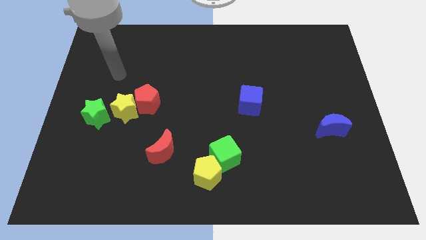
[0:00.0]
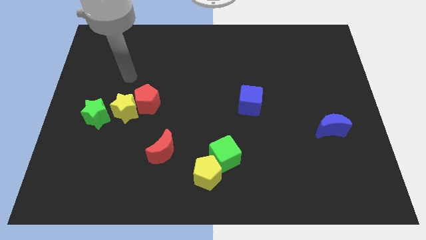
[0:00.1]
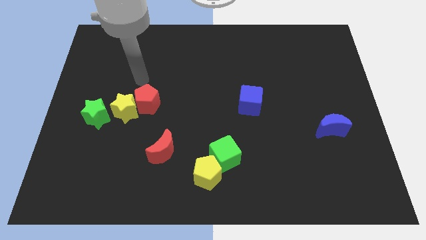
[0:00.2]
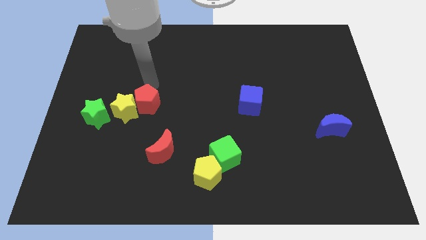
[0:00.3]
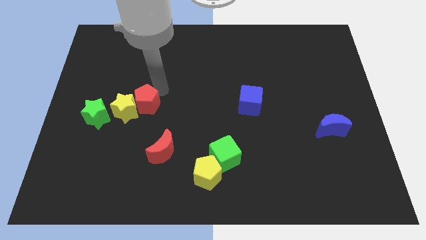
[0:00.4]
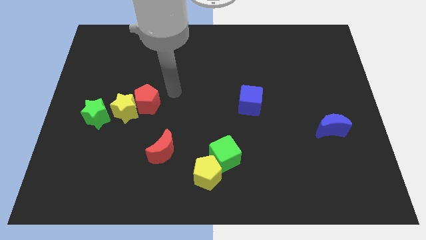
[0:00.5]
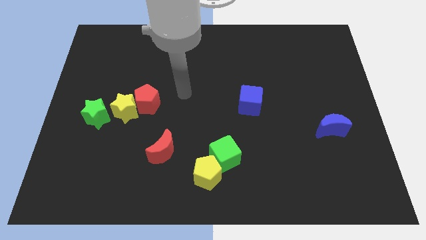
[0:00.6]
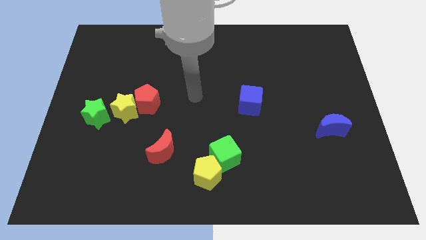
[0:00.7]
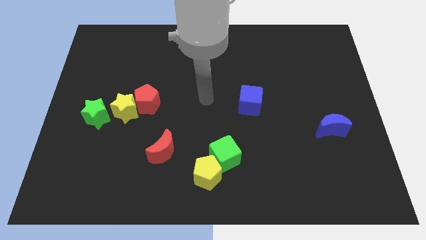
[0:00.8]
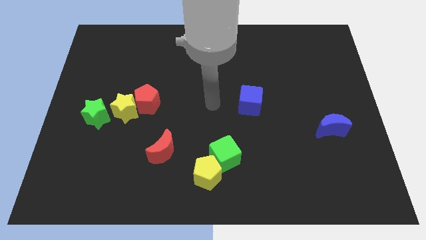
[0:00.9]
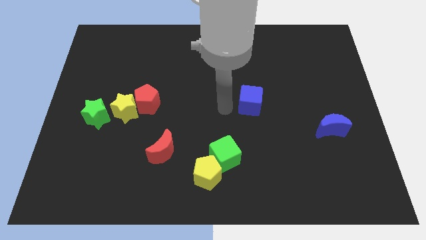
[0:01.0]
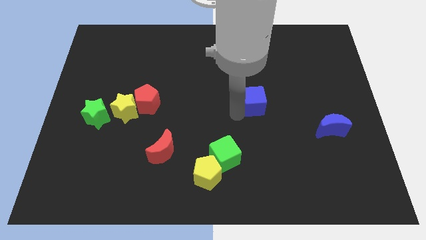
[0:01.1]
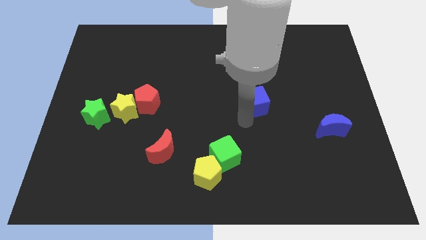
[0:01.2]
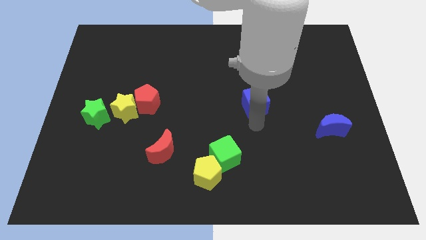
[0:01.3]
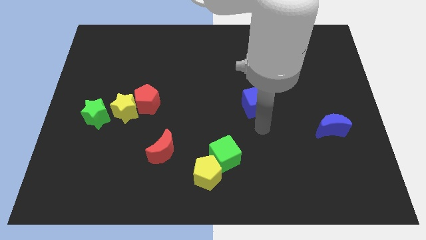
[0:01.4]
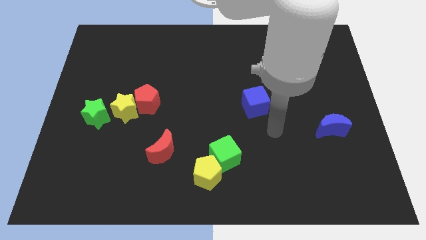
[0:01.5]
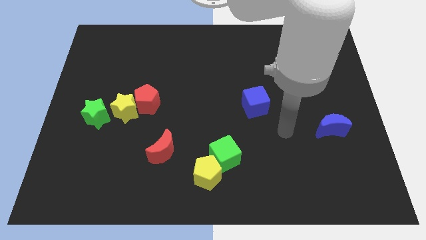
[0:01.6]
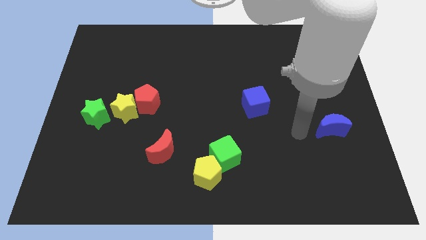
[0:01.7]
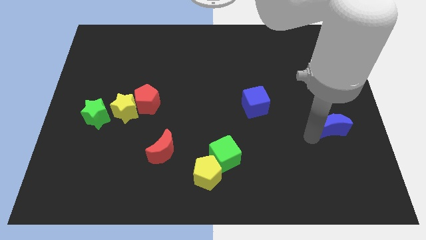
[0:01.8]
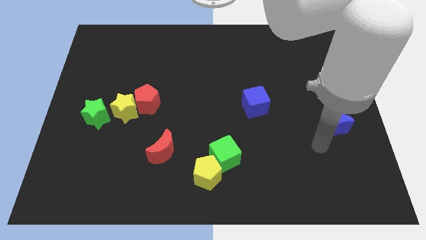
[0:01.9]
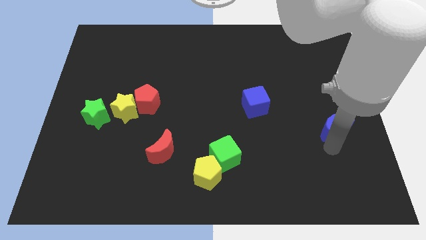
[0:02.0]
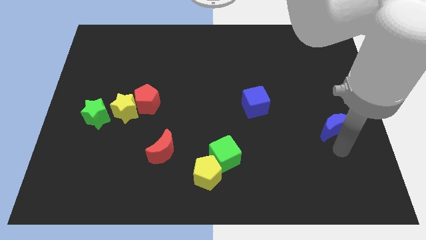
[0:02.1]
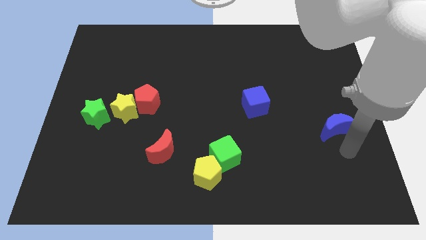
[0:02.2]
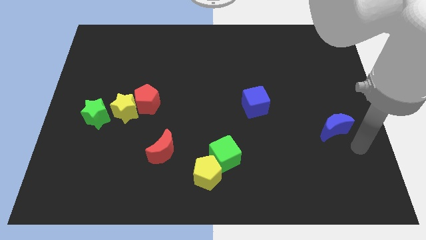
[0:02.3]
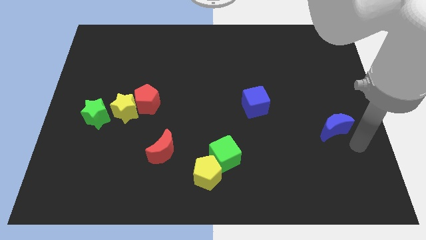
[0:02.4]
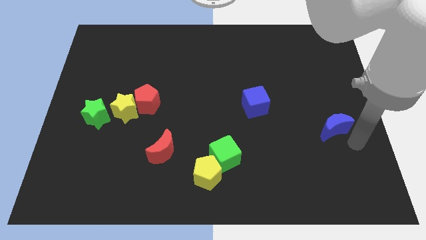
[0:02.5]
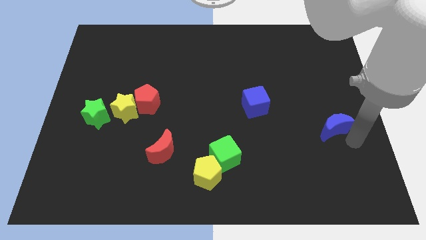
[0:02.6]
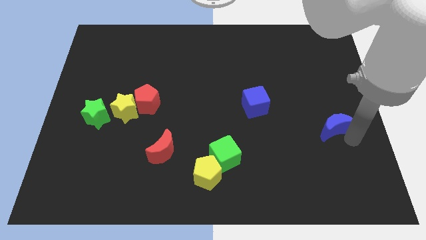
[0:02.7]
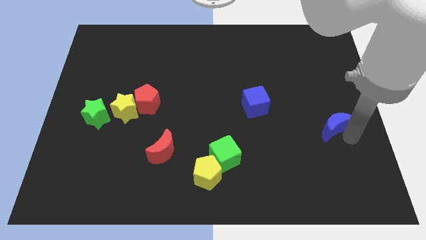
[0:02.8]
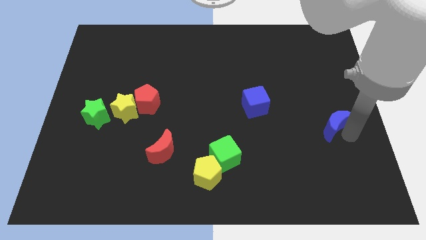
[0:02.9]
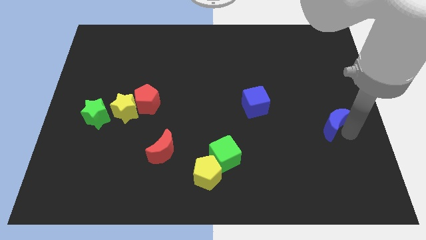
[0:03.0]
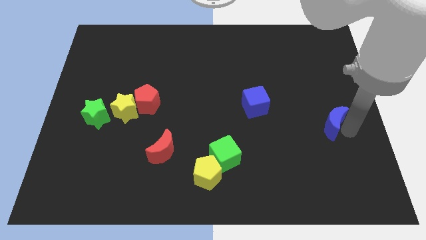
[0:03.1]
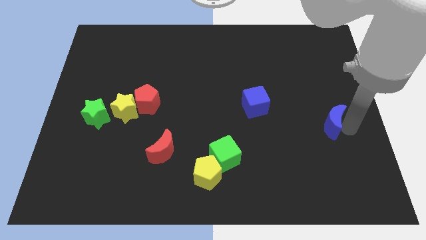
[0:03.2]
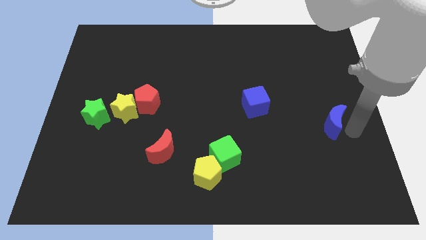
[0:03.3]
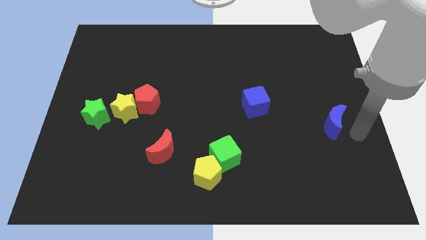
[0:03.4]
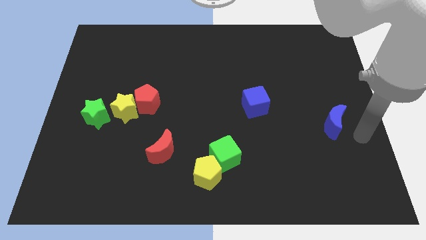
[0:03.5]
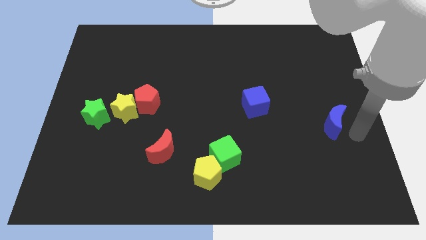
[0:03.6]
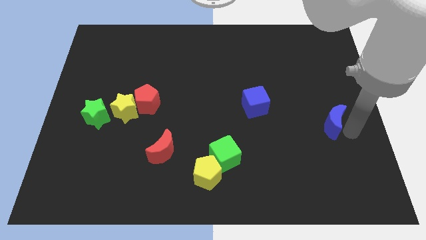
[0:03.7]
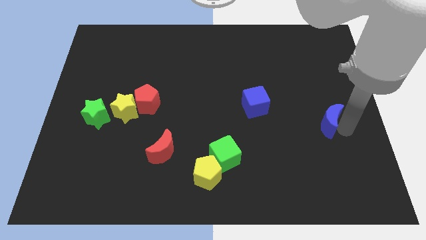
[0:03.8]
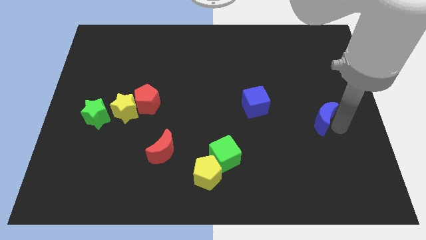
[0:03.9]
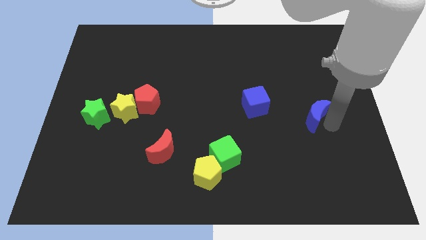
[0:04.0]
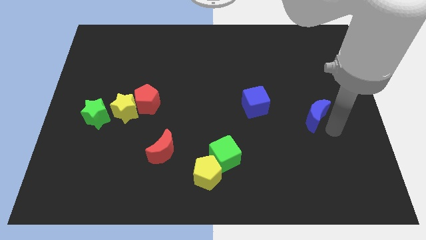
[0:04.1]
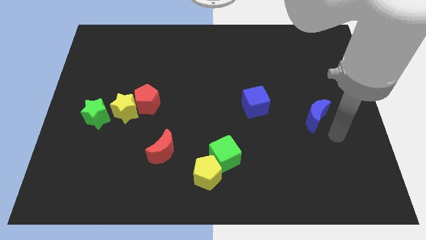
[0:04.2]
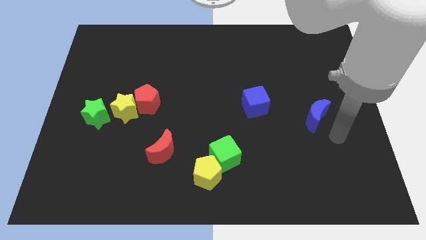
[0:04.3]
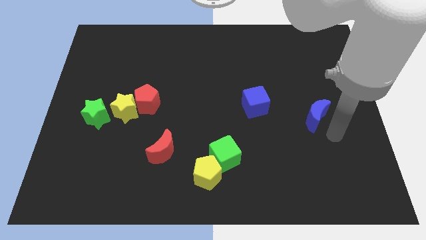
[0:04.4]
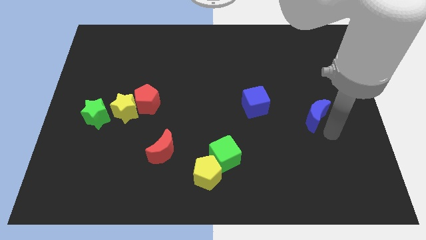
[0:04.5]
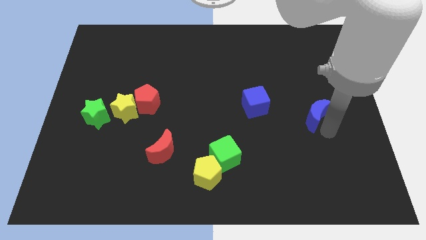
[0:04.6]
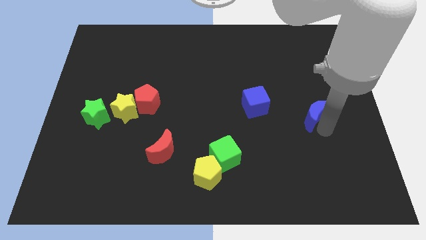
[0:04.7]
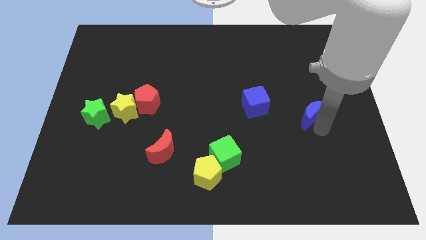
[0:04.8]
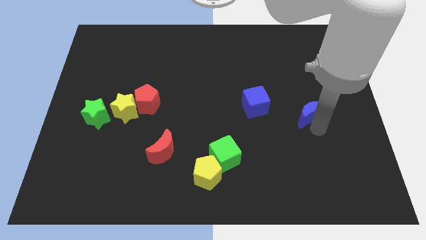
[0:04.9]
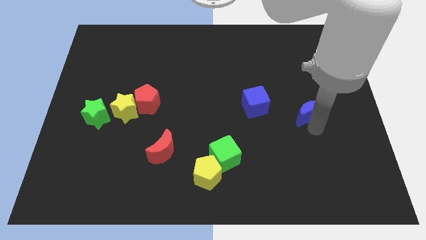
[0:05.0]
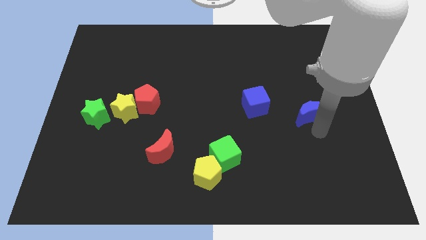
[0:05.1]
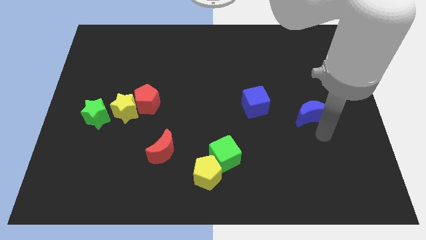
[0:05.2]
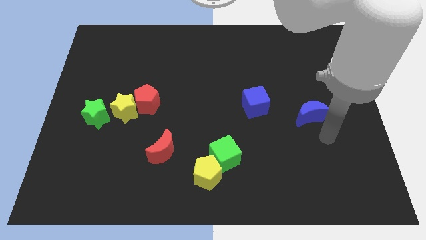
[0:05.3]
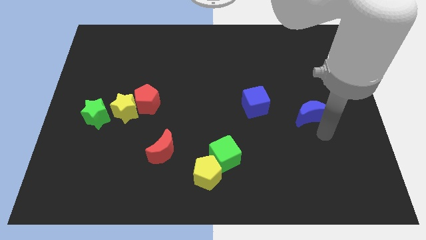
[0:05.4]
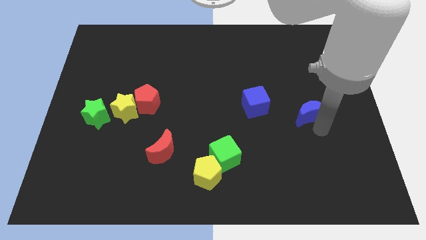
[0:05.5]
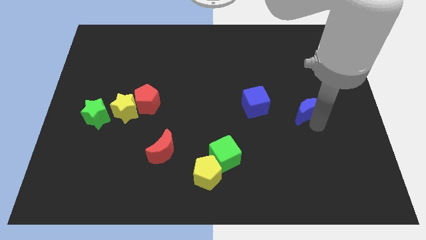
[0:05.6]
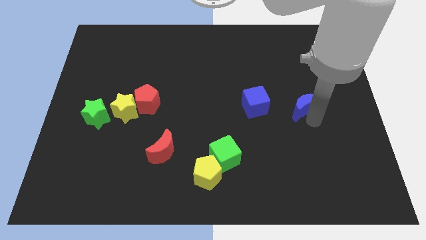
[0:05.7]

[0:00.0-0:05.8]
move the blue moon slightly diagonally upwards and left

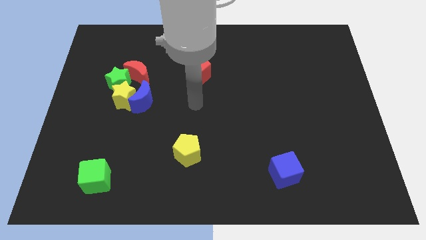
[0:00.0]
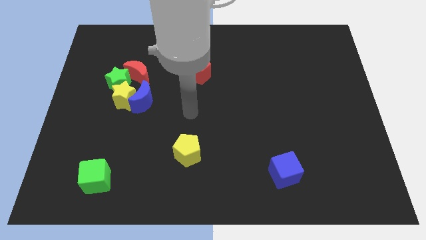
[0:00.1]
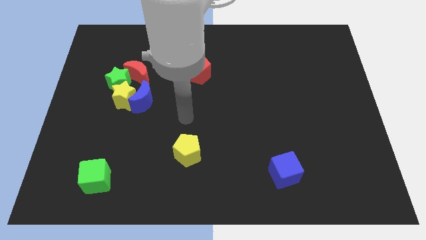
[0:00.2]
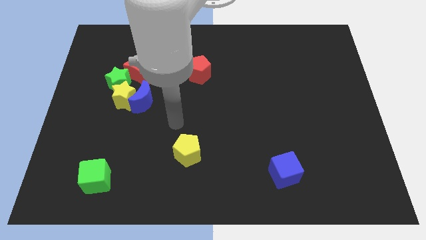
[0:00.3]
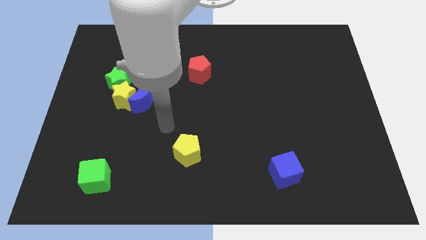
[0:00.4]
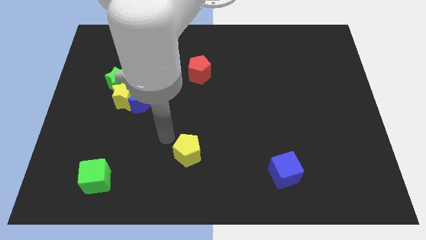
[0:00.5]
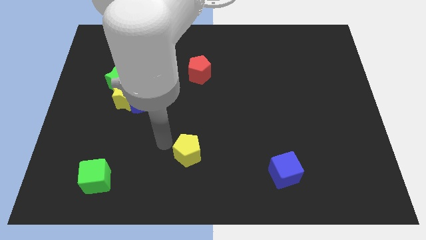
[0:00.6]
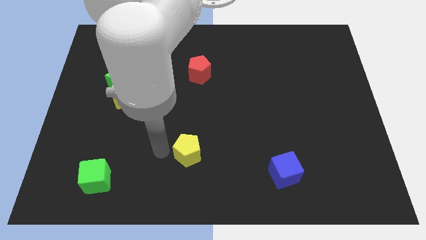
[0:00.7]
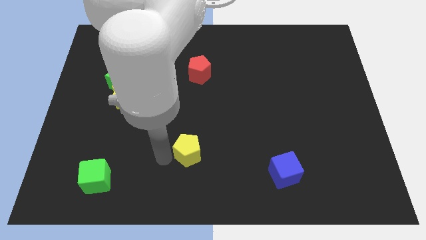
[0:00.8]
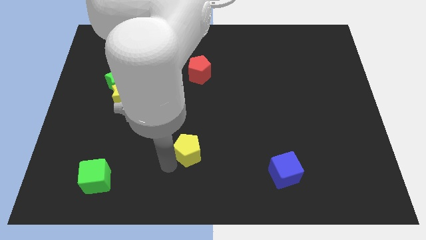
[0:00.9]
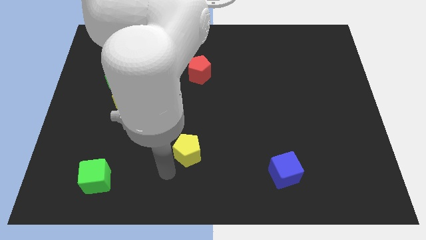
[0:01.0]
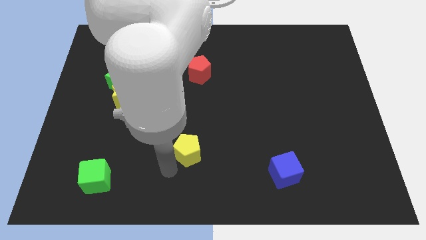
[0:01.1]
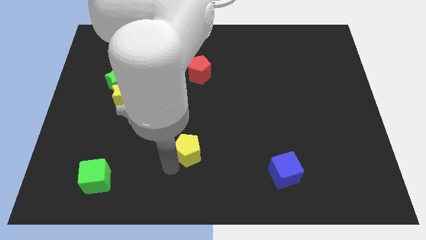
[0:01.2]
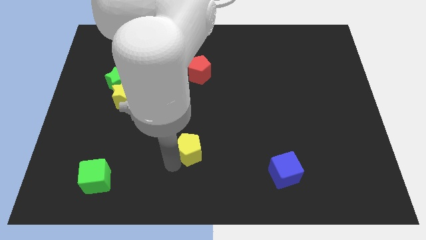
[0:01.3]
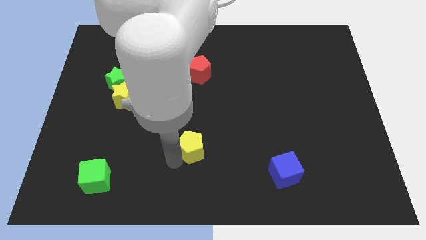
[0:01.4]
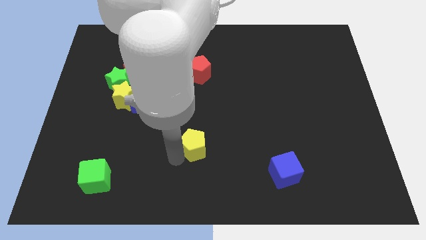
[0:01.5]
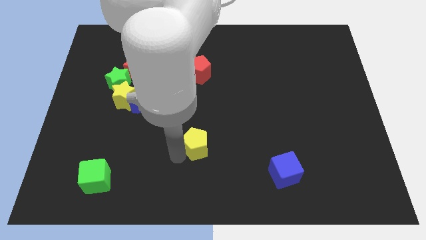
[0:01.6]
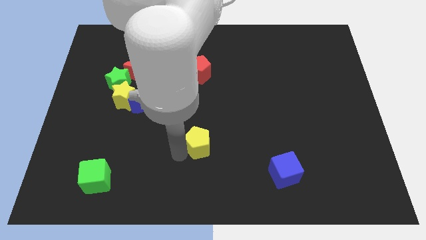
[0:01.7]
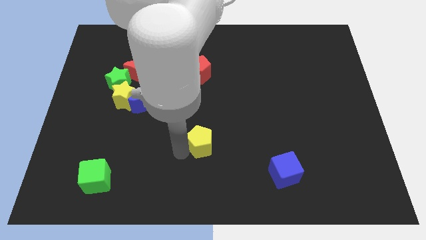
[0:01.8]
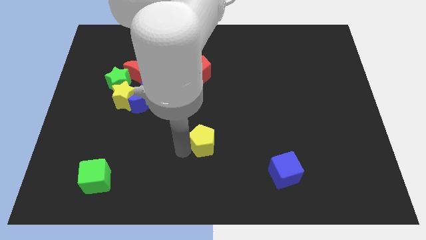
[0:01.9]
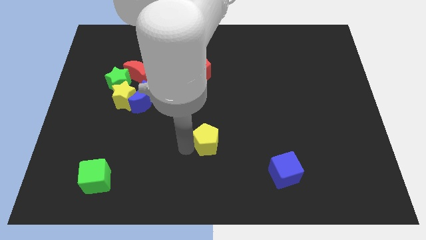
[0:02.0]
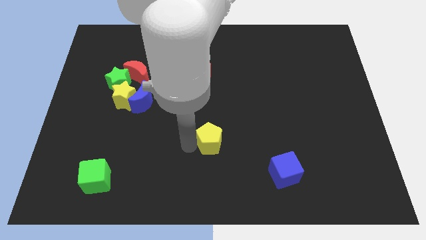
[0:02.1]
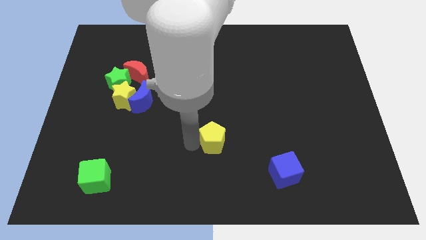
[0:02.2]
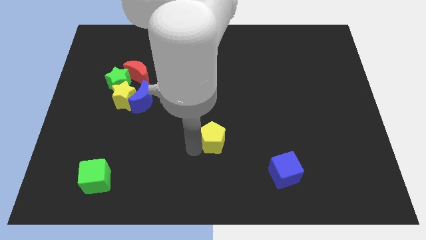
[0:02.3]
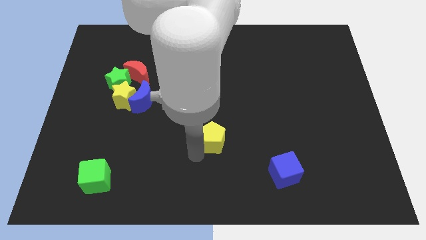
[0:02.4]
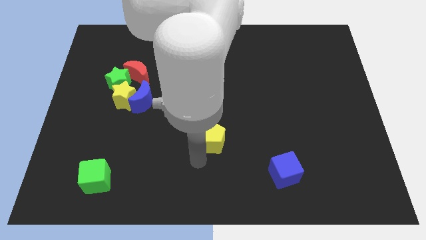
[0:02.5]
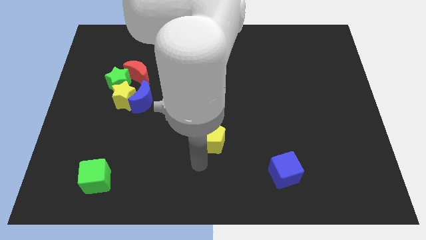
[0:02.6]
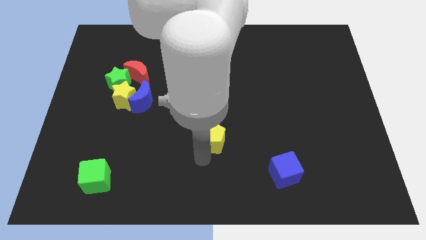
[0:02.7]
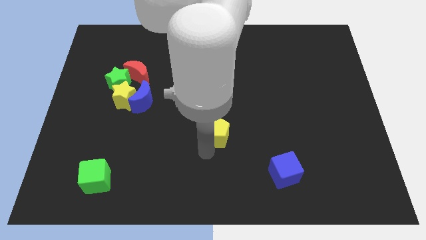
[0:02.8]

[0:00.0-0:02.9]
slide the yellow pentagon up and then to the right a little bit
